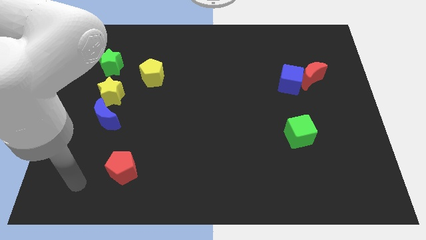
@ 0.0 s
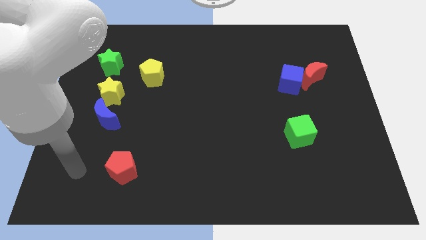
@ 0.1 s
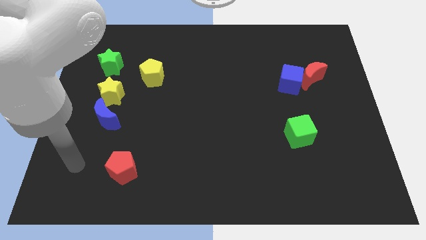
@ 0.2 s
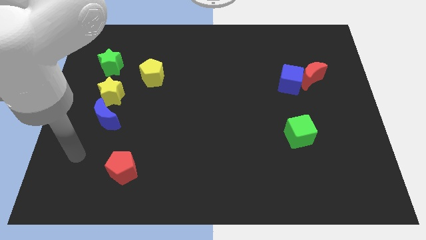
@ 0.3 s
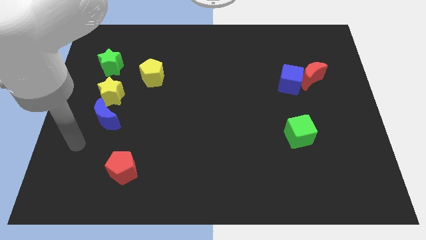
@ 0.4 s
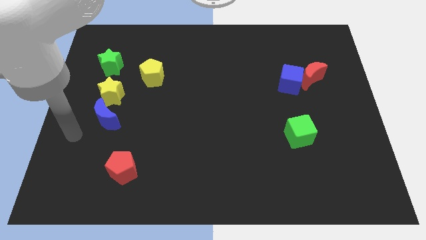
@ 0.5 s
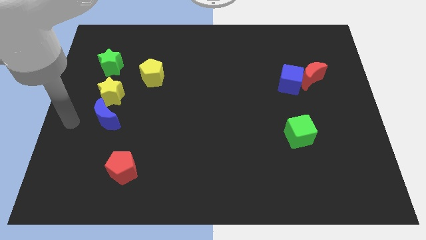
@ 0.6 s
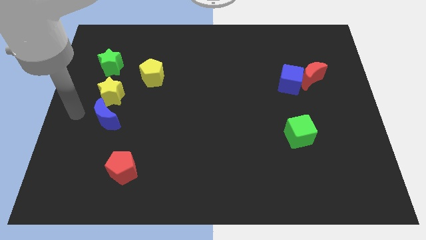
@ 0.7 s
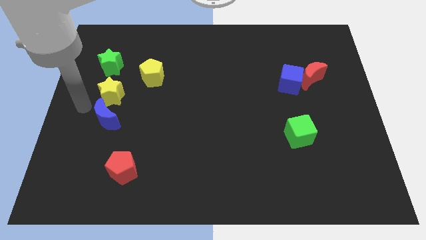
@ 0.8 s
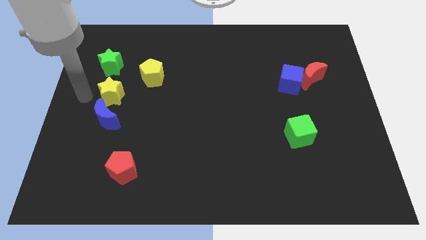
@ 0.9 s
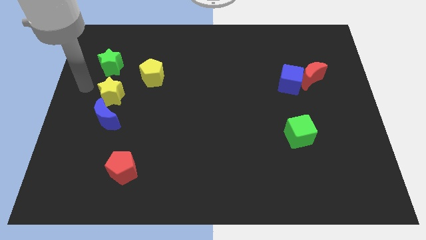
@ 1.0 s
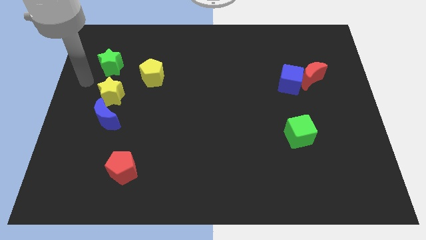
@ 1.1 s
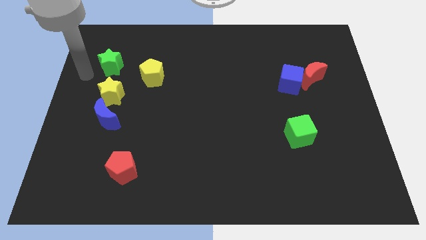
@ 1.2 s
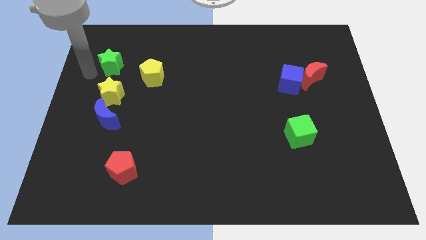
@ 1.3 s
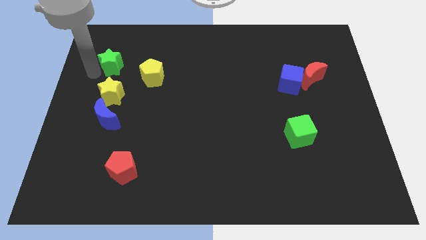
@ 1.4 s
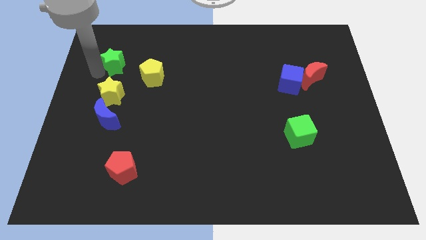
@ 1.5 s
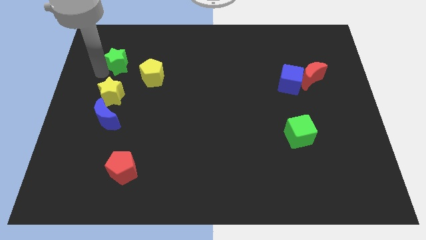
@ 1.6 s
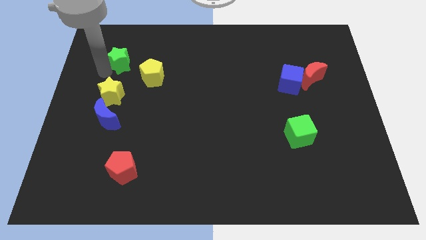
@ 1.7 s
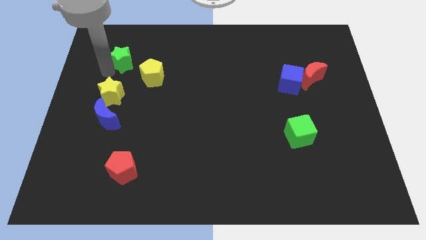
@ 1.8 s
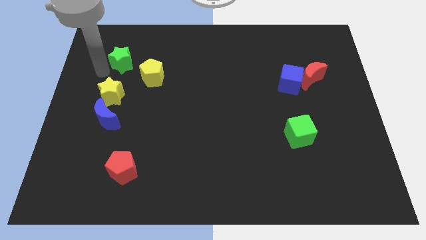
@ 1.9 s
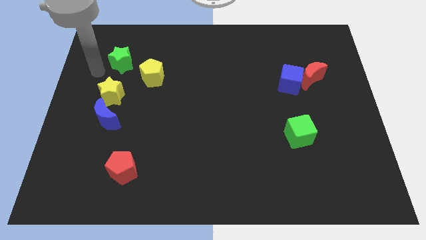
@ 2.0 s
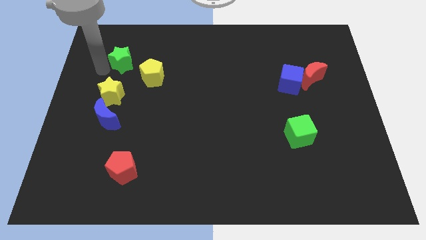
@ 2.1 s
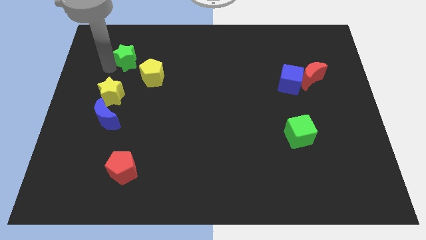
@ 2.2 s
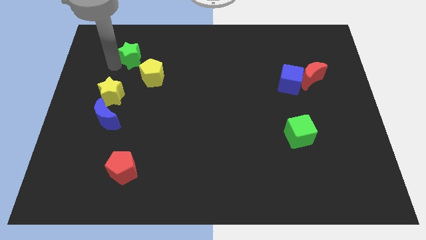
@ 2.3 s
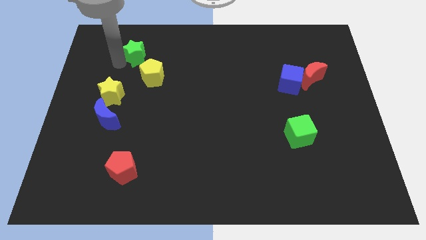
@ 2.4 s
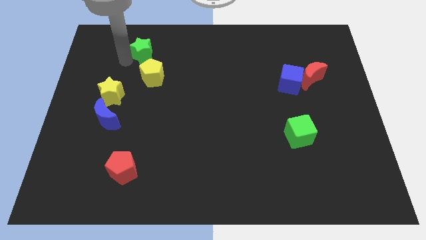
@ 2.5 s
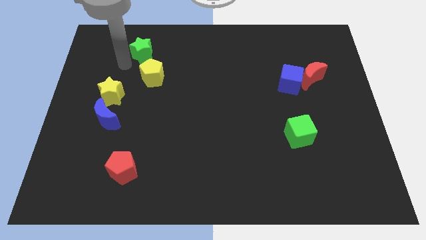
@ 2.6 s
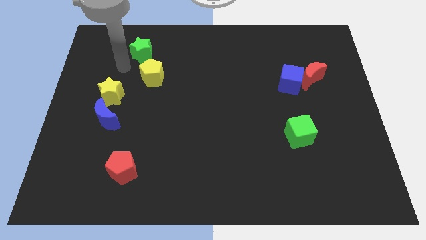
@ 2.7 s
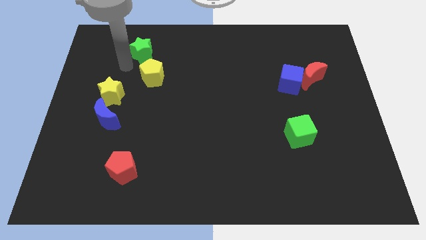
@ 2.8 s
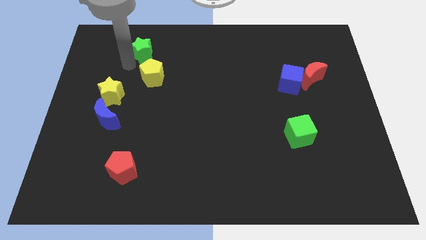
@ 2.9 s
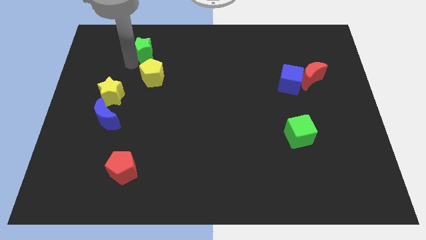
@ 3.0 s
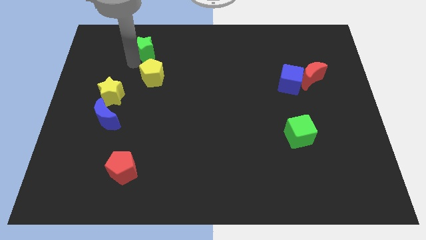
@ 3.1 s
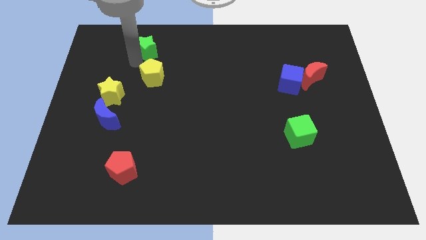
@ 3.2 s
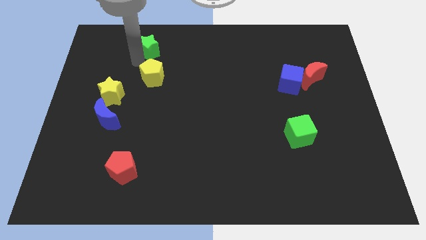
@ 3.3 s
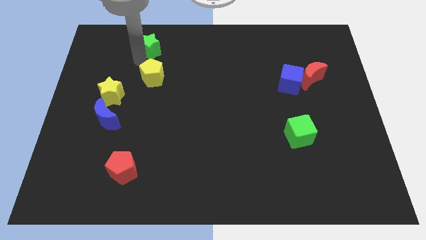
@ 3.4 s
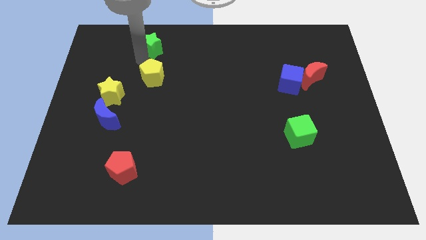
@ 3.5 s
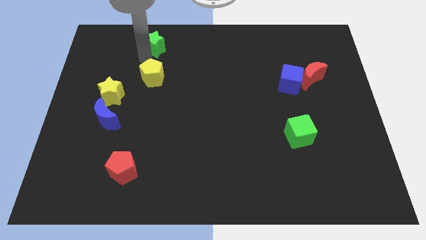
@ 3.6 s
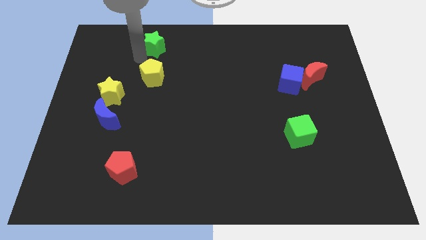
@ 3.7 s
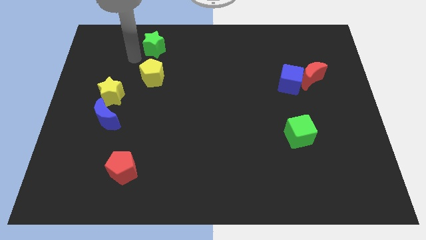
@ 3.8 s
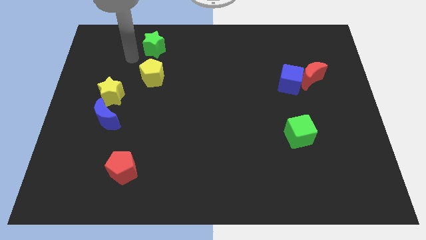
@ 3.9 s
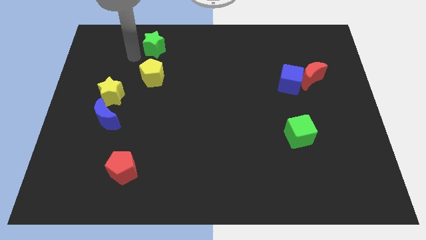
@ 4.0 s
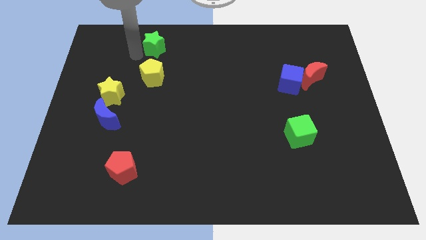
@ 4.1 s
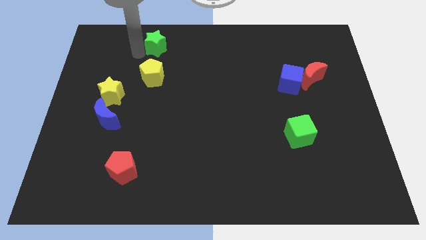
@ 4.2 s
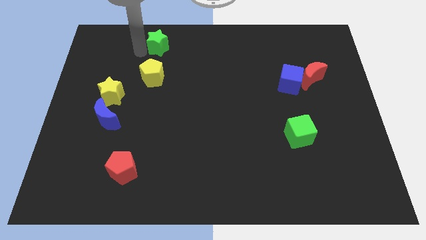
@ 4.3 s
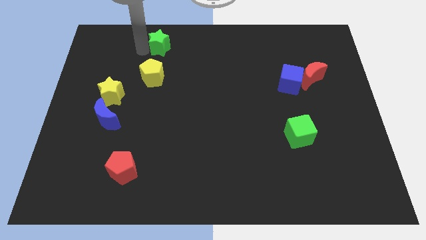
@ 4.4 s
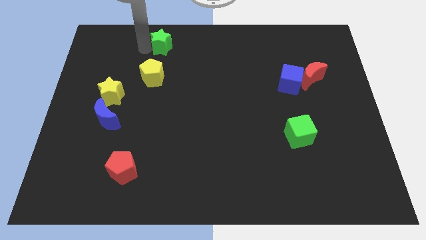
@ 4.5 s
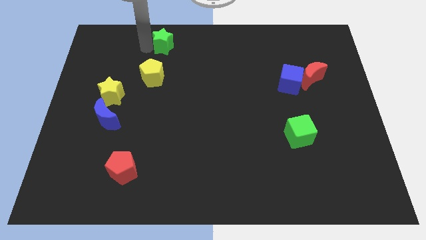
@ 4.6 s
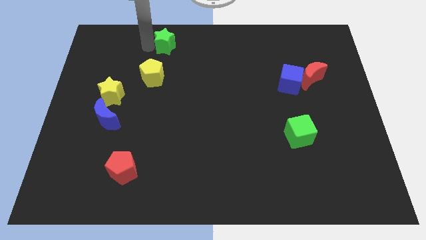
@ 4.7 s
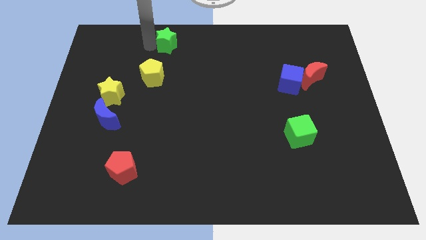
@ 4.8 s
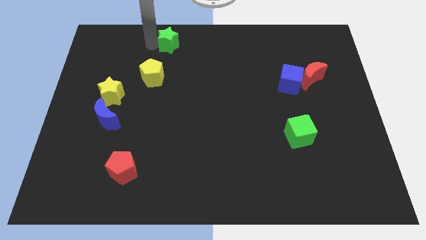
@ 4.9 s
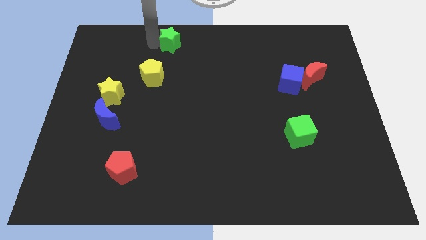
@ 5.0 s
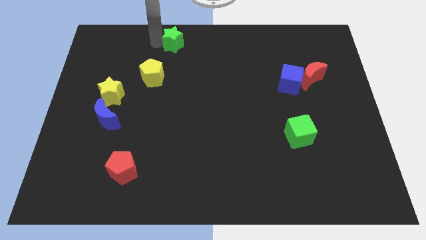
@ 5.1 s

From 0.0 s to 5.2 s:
slide the green star to the towards your base
